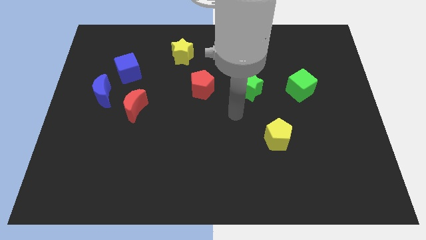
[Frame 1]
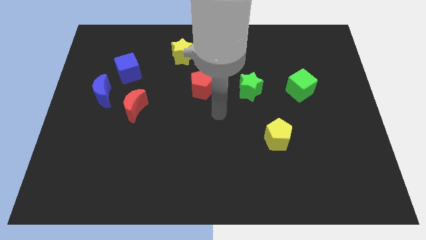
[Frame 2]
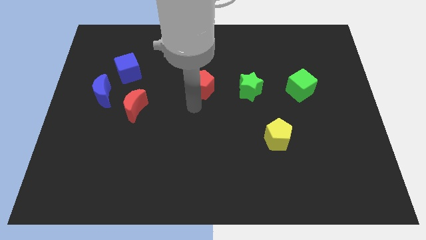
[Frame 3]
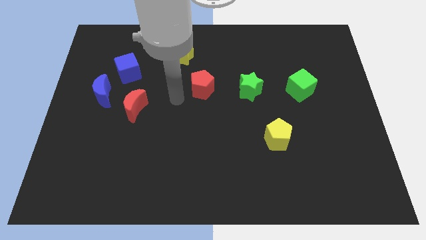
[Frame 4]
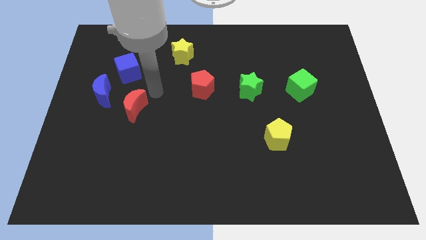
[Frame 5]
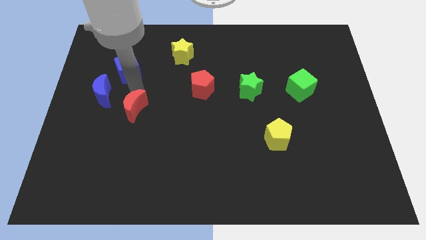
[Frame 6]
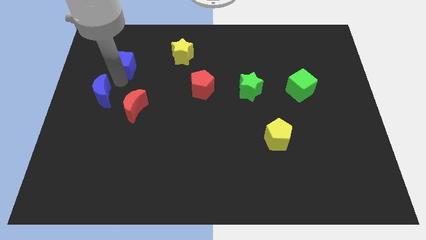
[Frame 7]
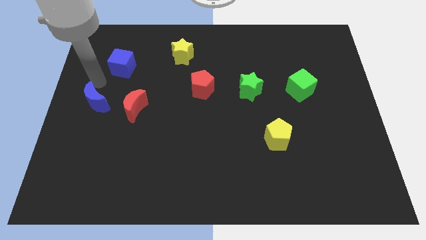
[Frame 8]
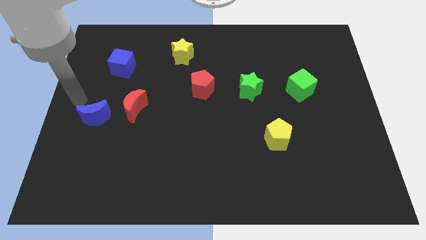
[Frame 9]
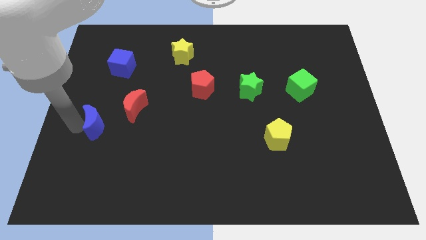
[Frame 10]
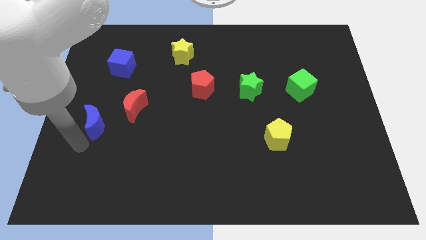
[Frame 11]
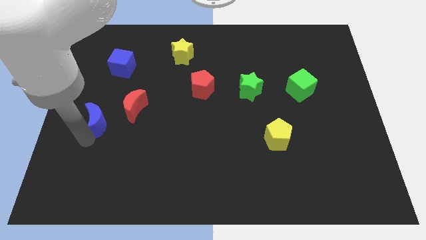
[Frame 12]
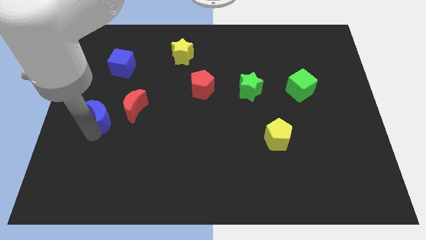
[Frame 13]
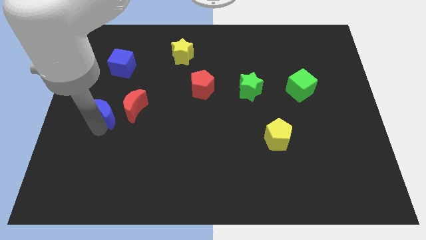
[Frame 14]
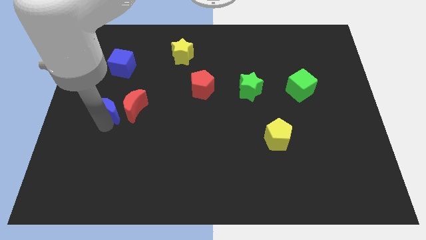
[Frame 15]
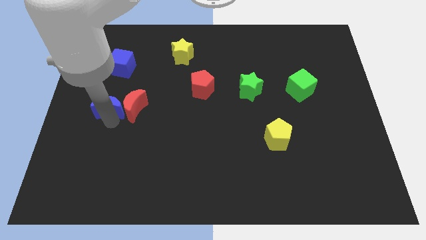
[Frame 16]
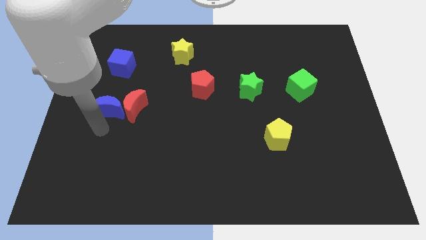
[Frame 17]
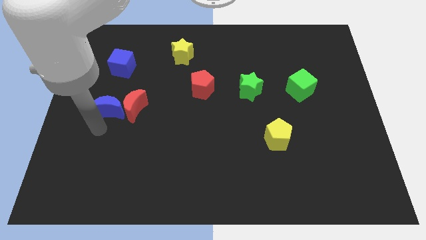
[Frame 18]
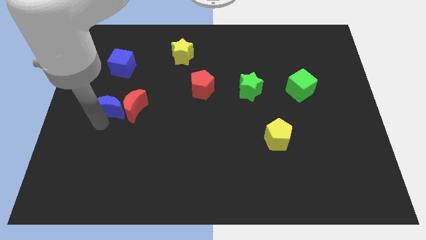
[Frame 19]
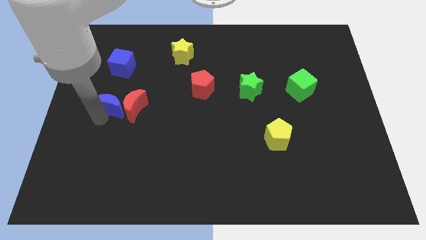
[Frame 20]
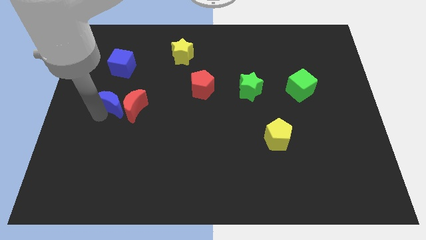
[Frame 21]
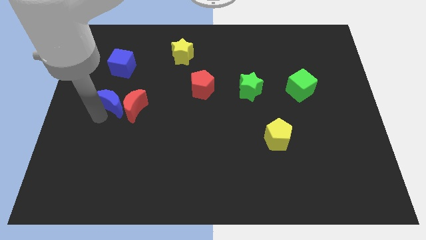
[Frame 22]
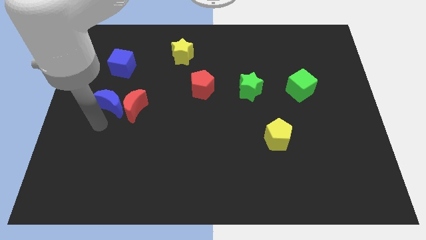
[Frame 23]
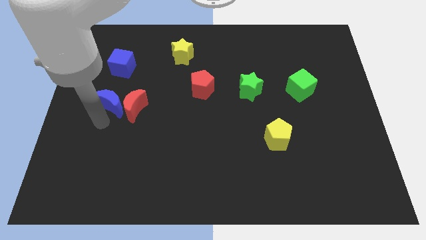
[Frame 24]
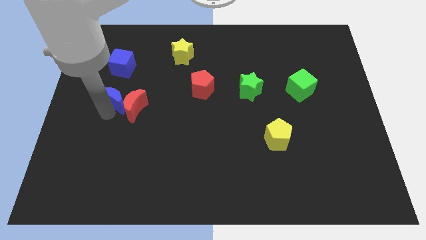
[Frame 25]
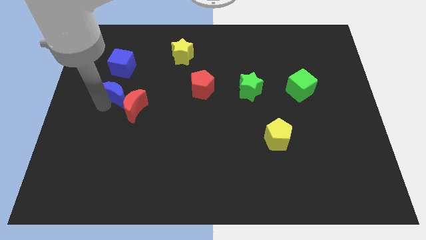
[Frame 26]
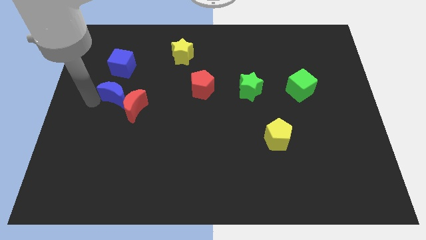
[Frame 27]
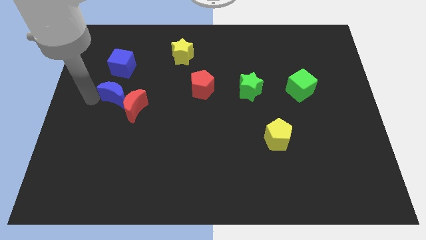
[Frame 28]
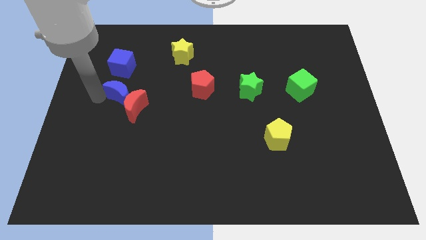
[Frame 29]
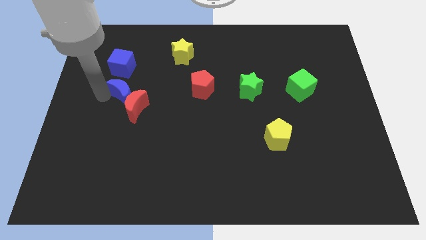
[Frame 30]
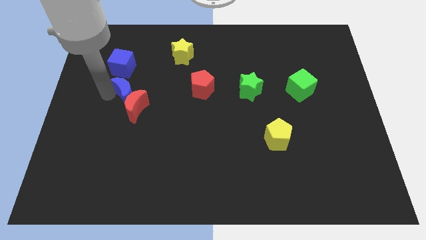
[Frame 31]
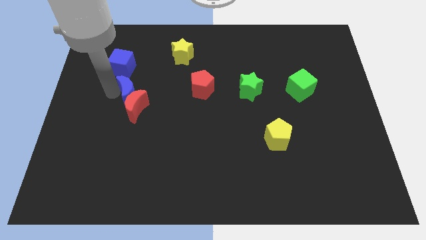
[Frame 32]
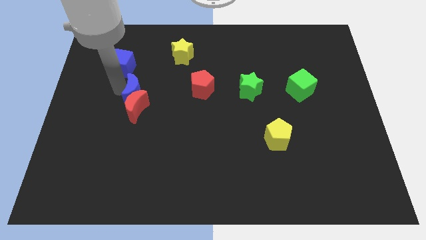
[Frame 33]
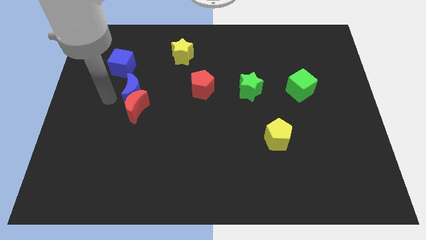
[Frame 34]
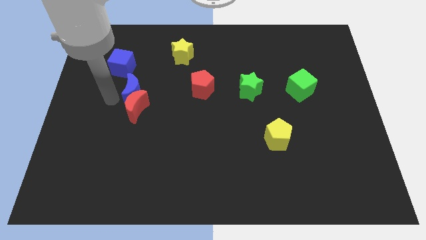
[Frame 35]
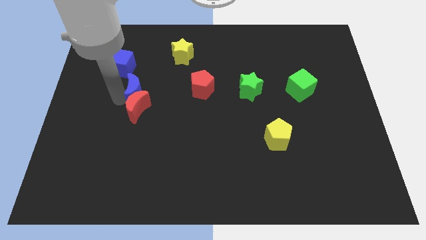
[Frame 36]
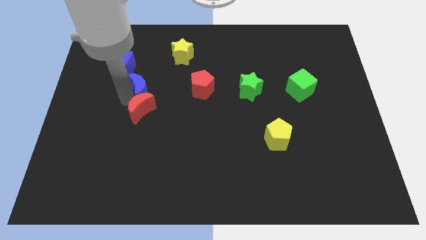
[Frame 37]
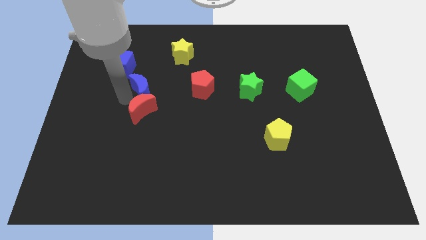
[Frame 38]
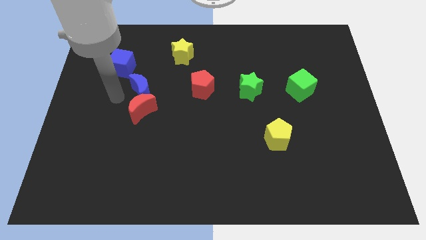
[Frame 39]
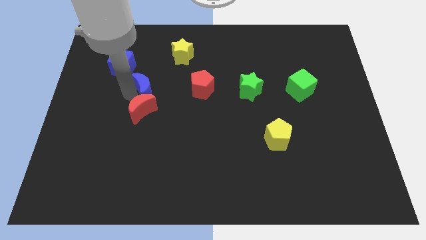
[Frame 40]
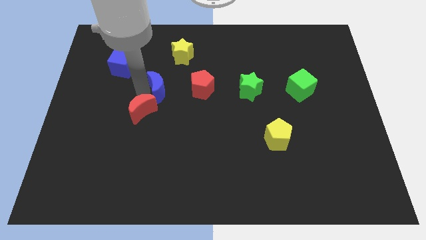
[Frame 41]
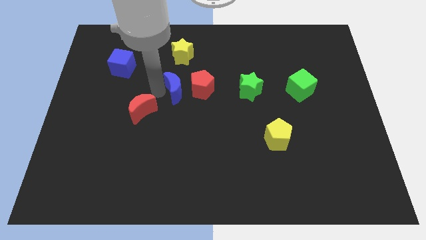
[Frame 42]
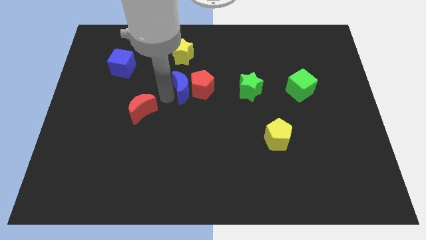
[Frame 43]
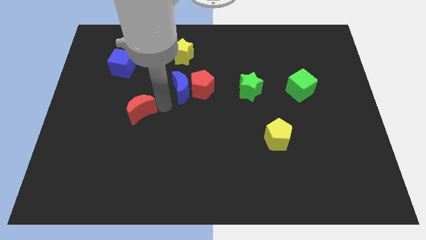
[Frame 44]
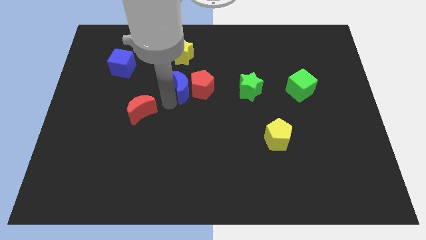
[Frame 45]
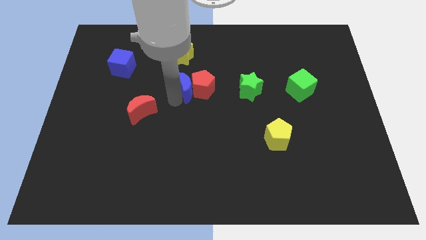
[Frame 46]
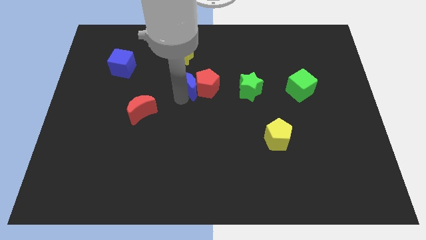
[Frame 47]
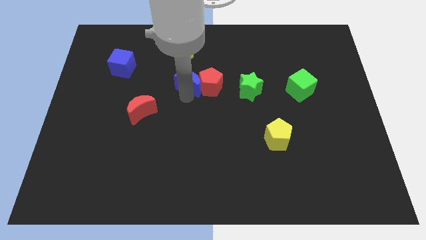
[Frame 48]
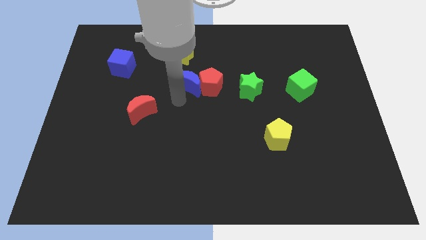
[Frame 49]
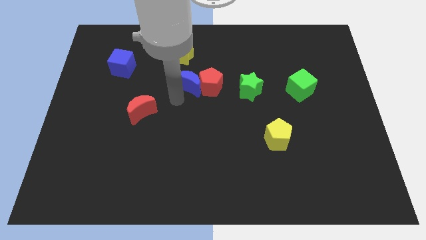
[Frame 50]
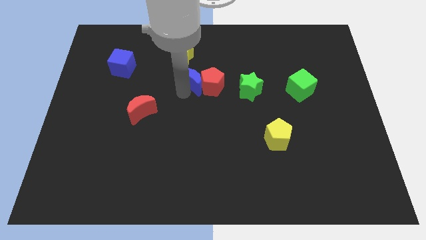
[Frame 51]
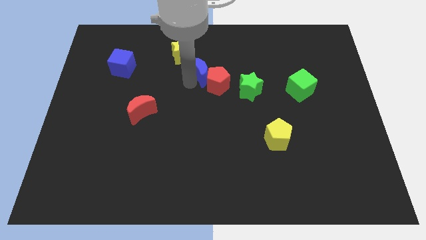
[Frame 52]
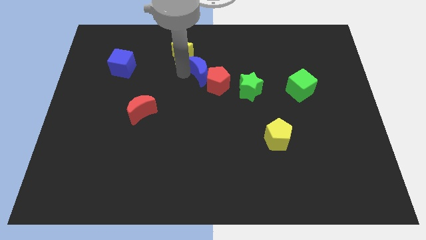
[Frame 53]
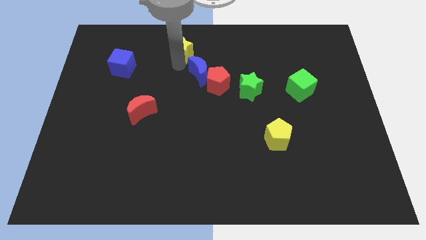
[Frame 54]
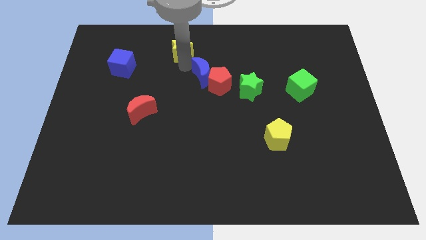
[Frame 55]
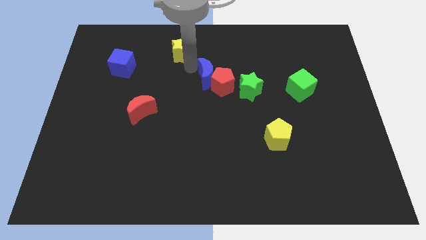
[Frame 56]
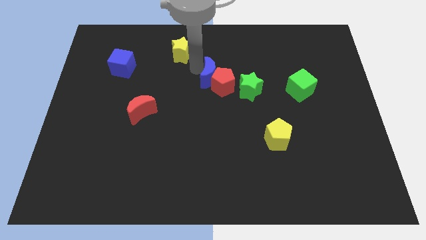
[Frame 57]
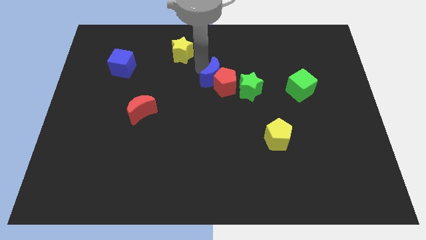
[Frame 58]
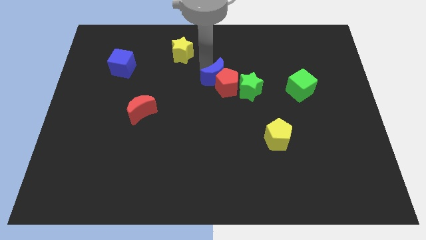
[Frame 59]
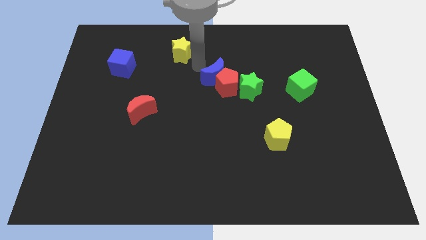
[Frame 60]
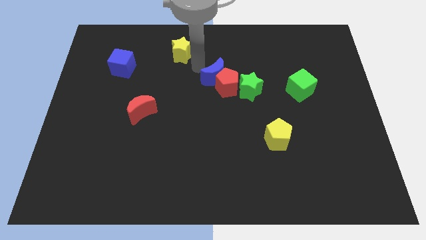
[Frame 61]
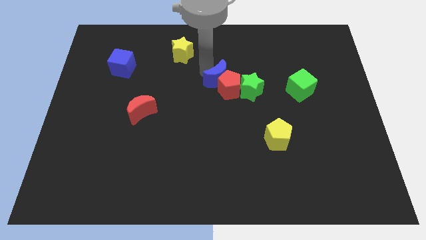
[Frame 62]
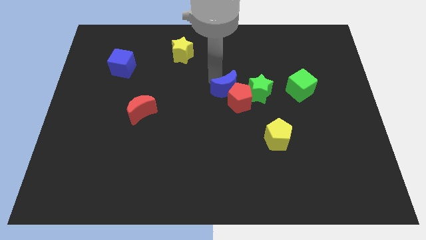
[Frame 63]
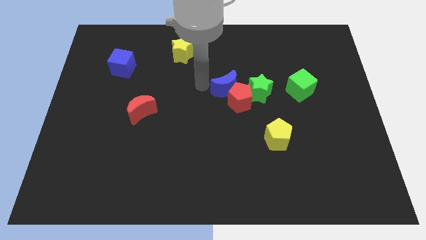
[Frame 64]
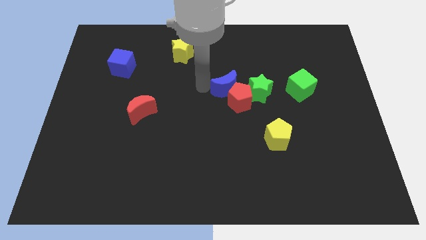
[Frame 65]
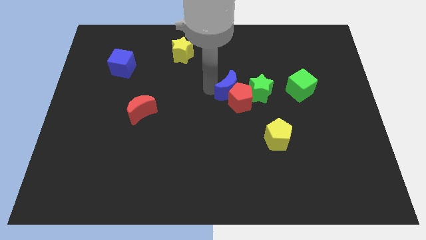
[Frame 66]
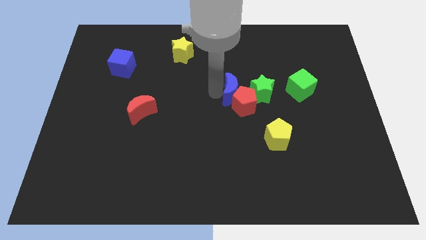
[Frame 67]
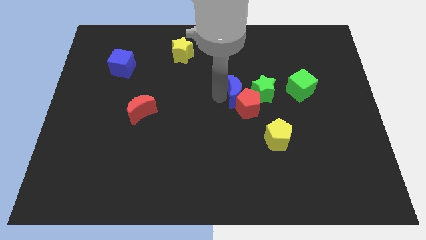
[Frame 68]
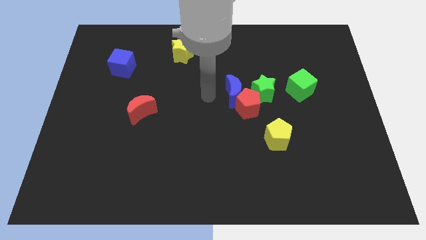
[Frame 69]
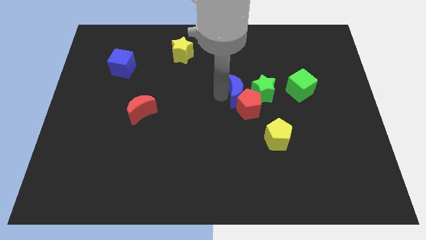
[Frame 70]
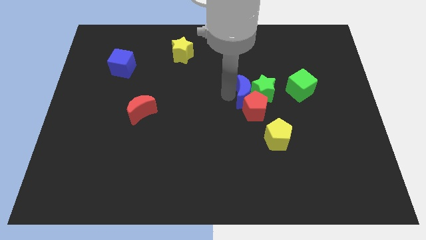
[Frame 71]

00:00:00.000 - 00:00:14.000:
slide the blue moon towards the green star

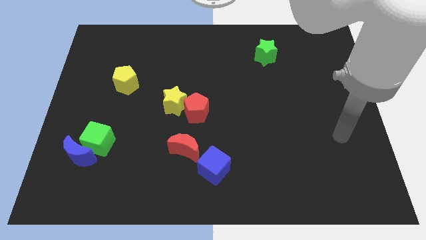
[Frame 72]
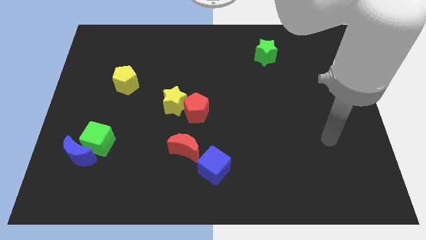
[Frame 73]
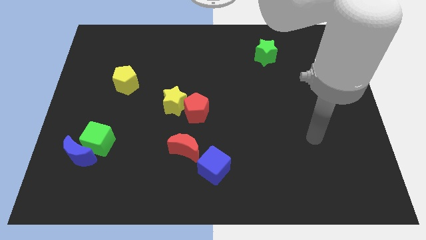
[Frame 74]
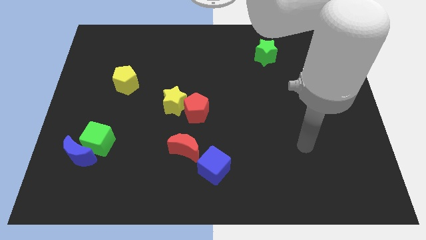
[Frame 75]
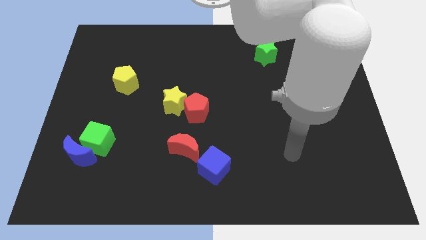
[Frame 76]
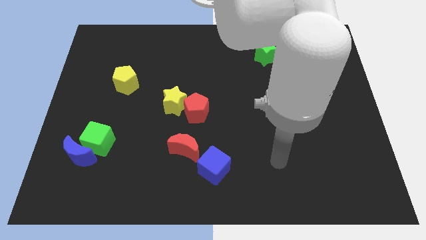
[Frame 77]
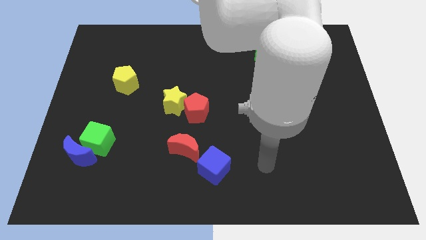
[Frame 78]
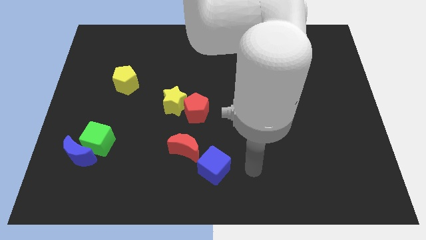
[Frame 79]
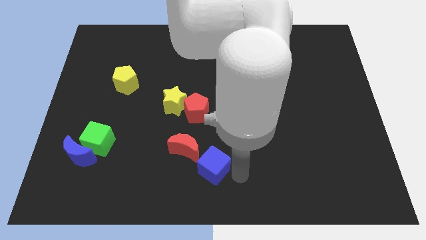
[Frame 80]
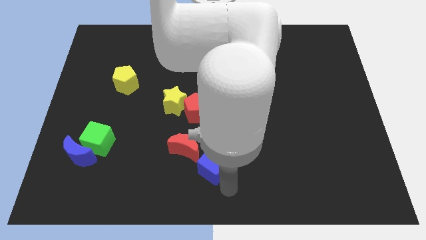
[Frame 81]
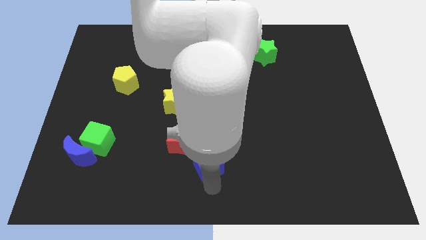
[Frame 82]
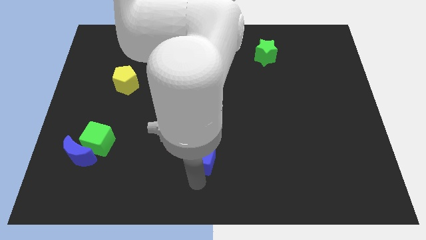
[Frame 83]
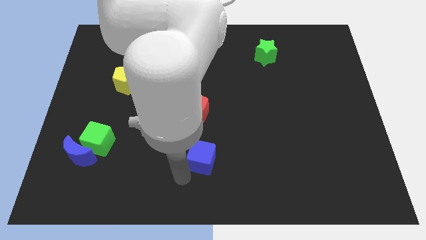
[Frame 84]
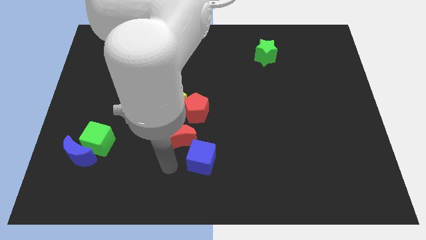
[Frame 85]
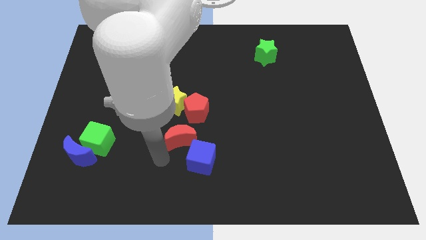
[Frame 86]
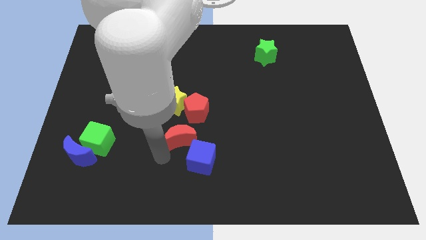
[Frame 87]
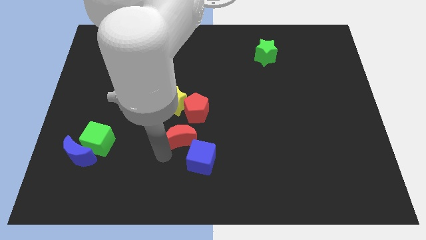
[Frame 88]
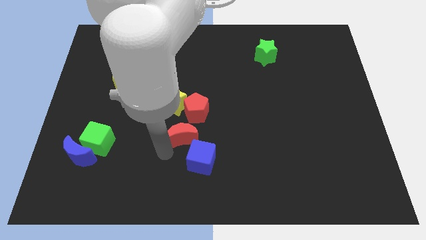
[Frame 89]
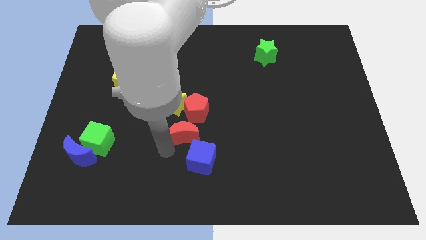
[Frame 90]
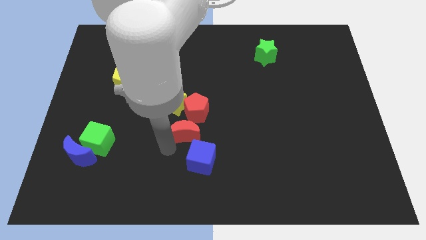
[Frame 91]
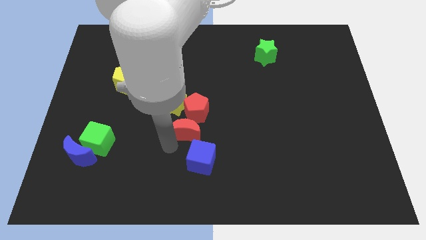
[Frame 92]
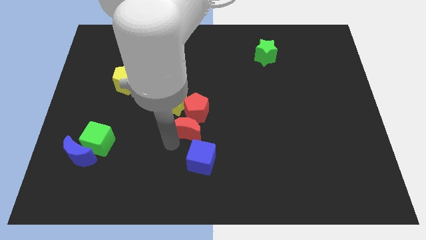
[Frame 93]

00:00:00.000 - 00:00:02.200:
put the red moon next to the red pentagon
